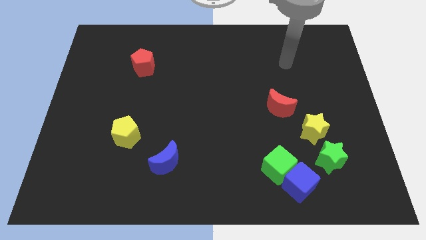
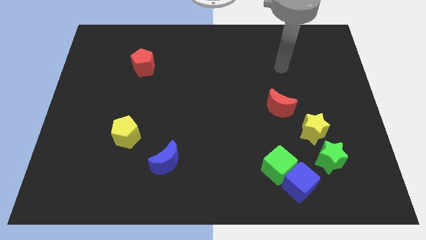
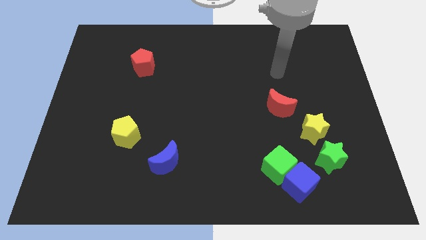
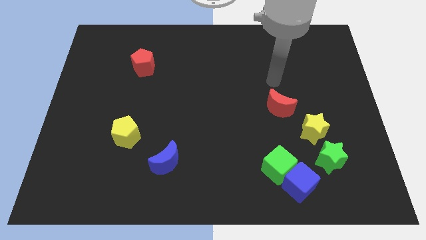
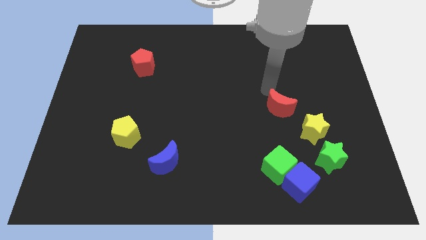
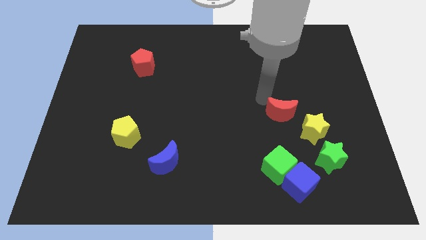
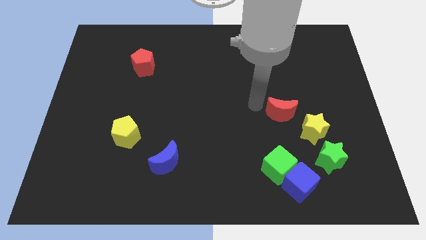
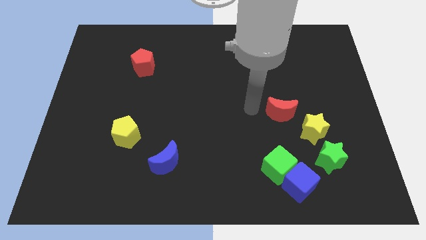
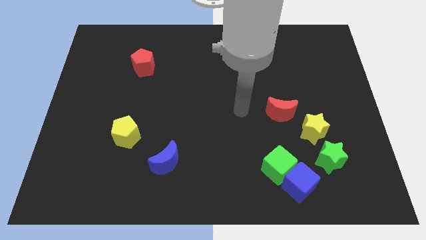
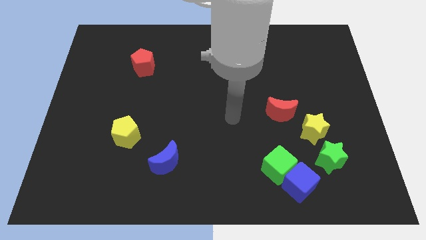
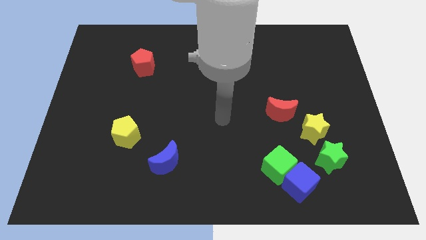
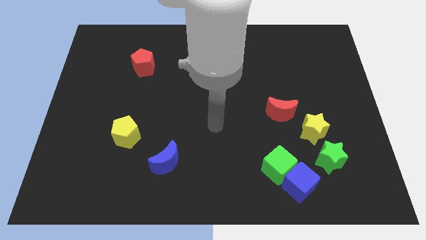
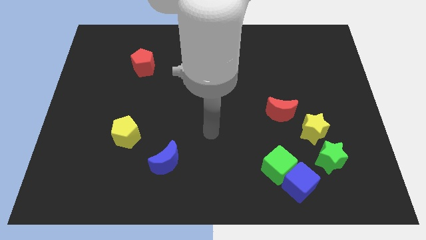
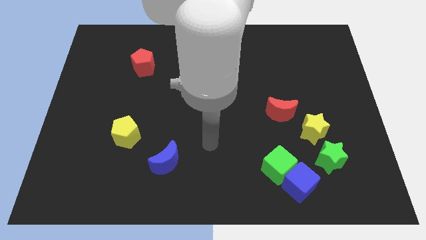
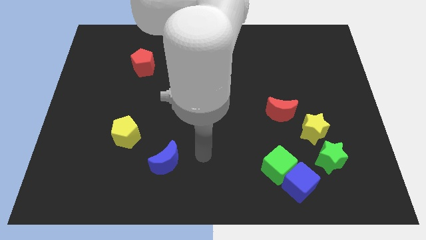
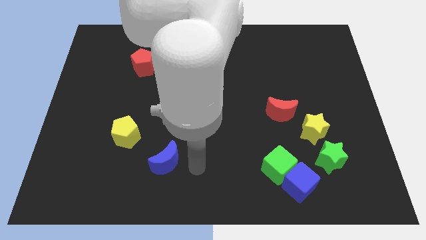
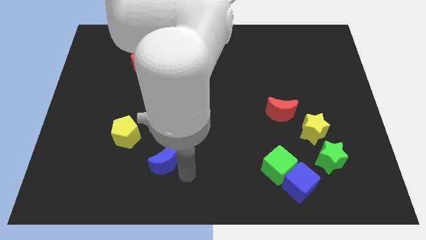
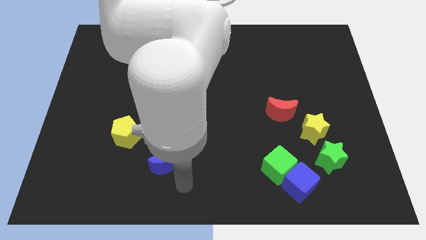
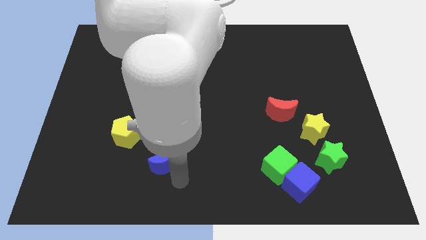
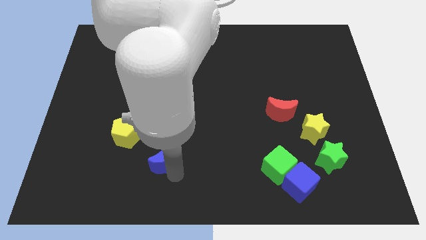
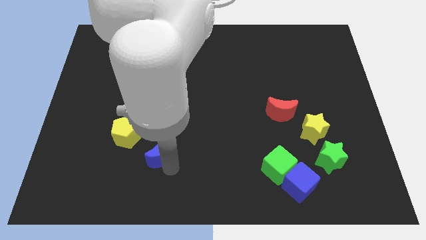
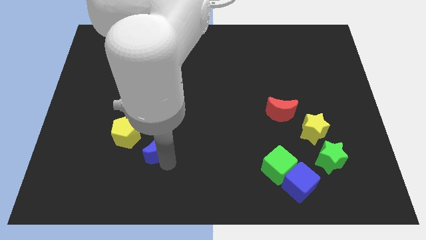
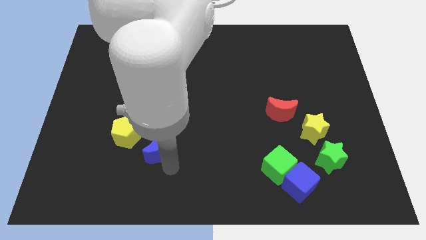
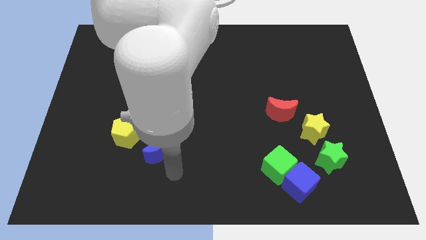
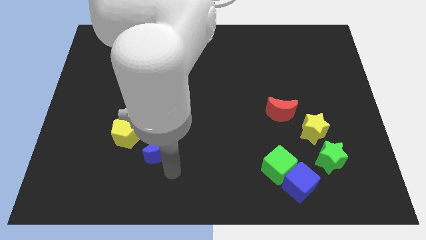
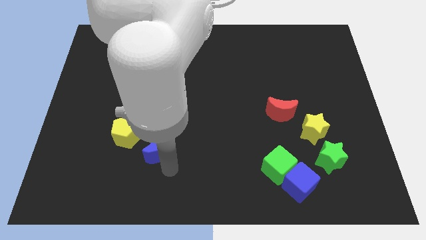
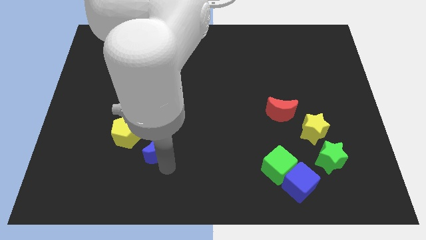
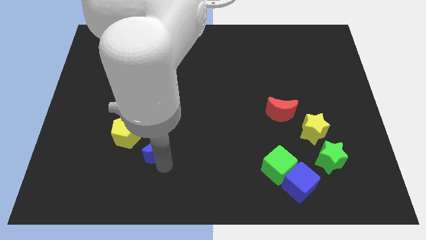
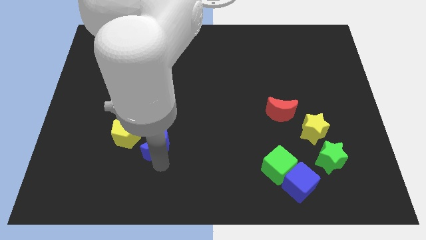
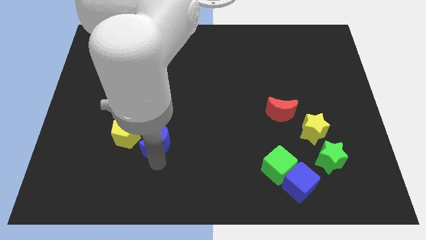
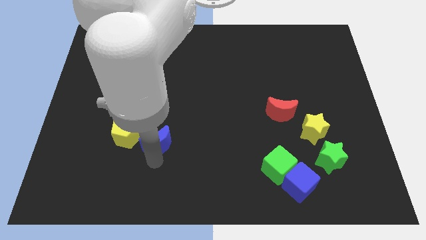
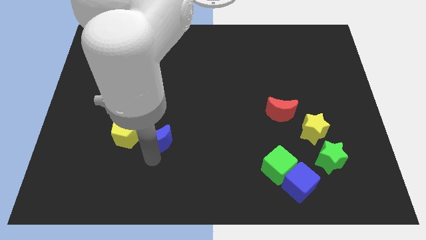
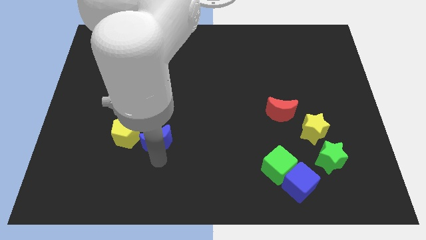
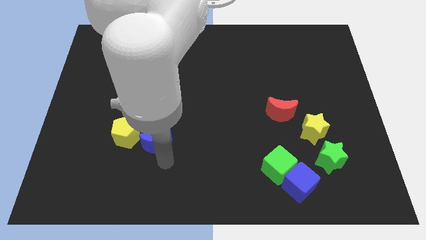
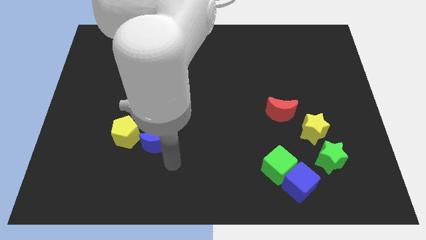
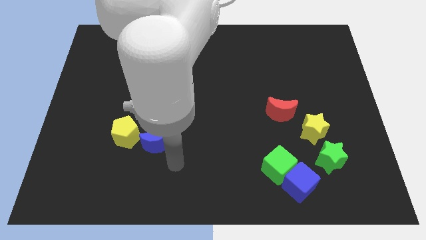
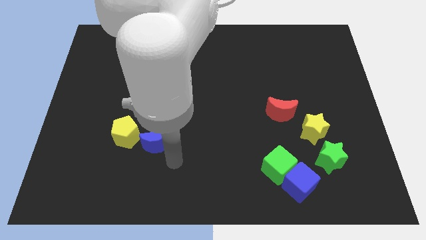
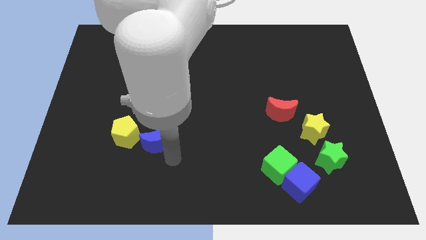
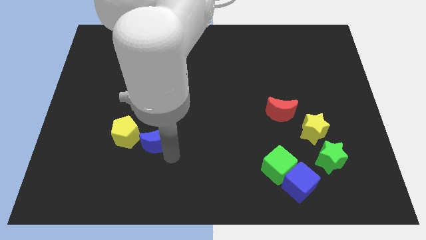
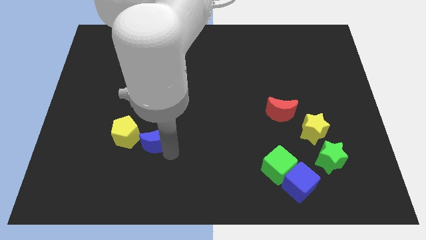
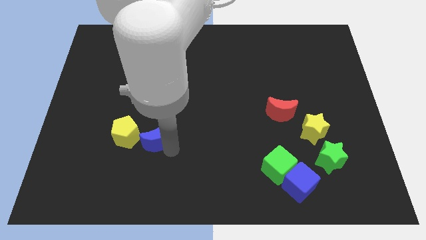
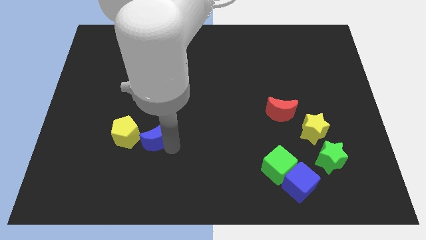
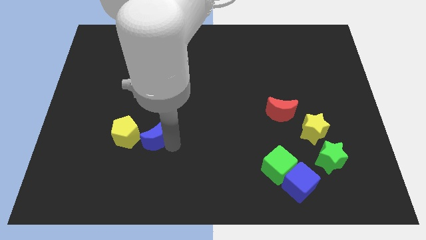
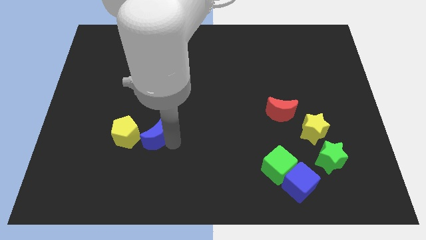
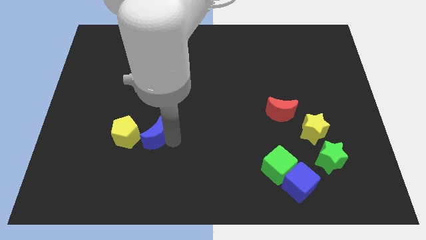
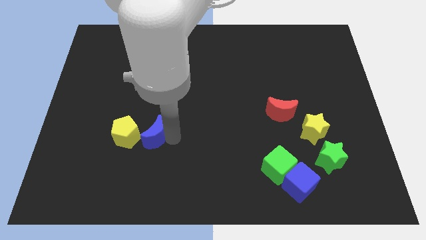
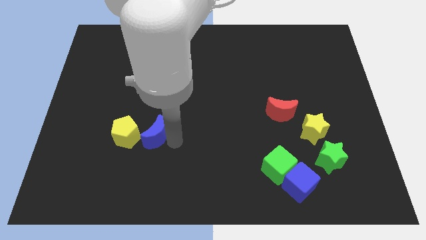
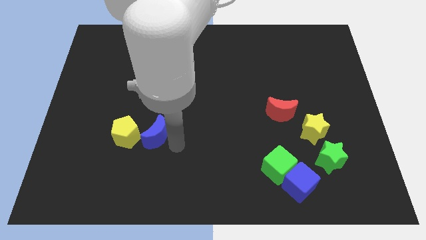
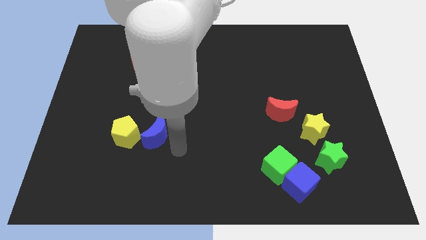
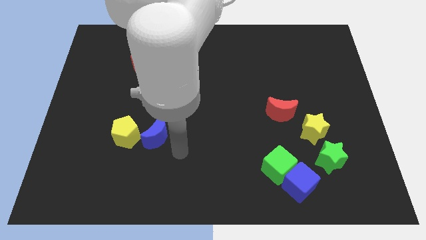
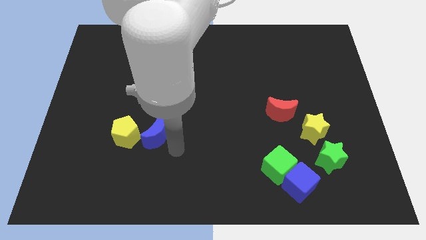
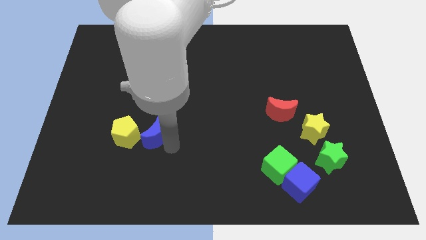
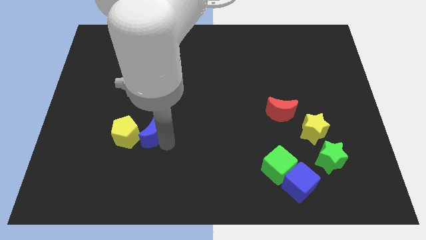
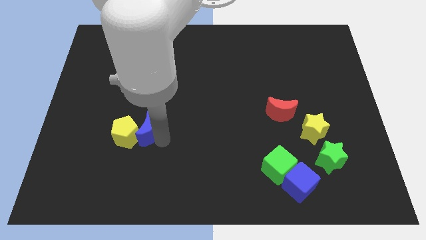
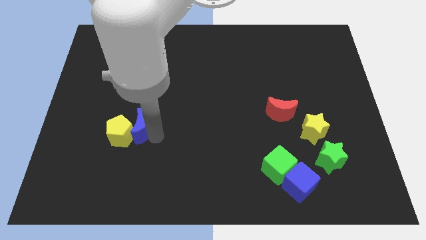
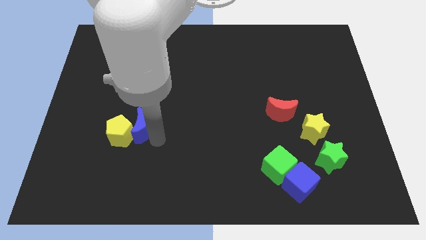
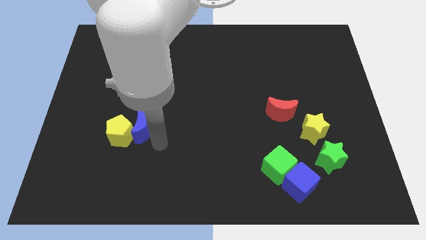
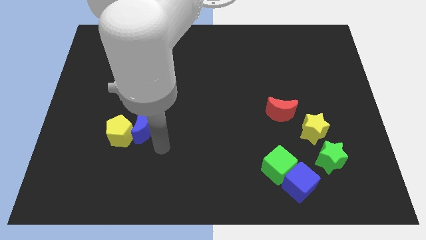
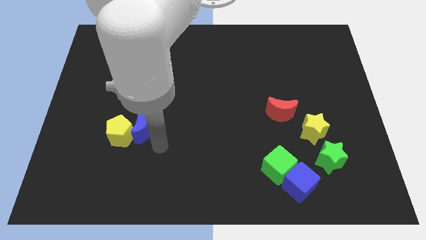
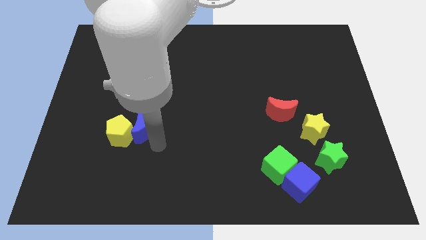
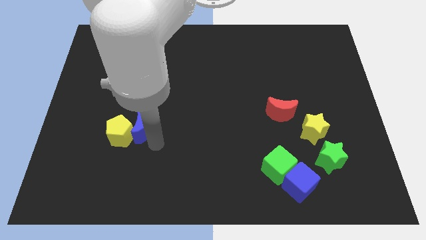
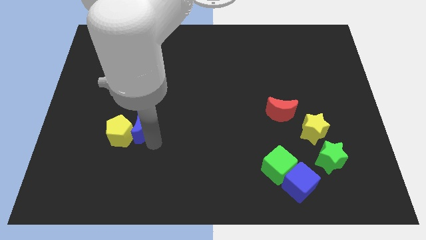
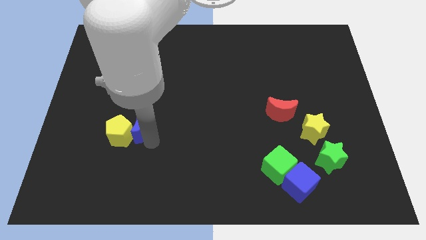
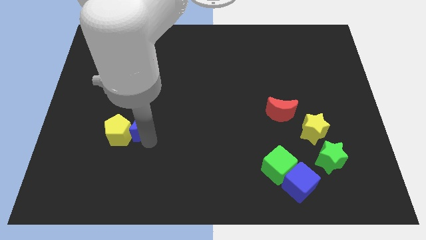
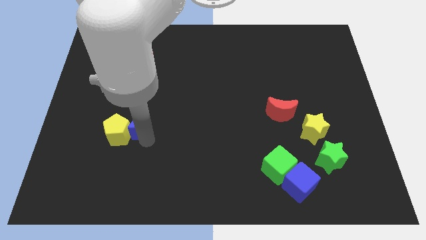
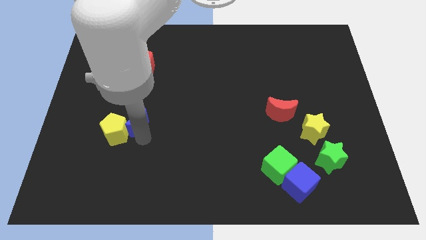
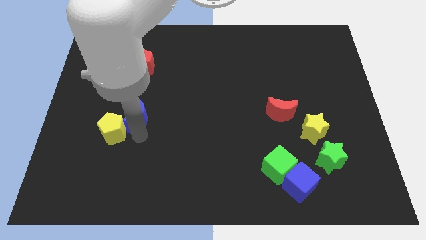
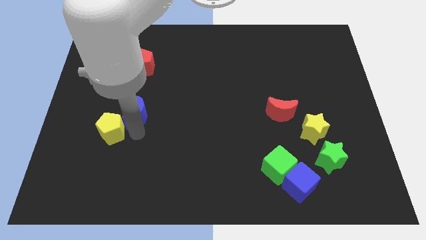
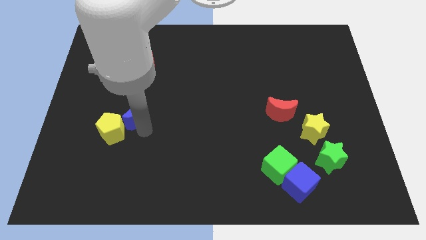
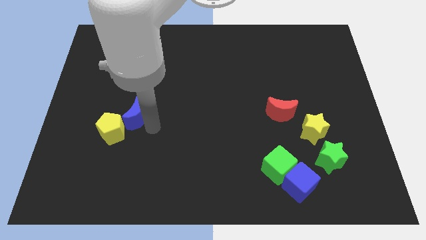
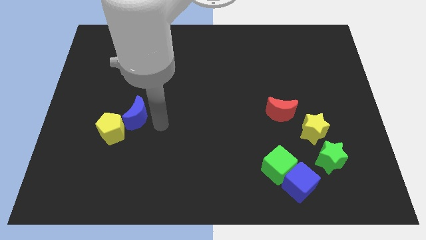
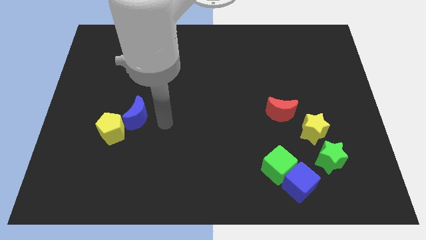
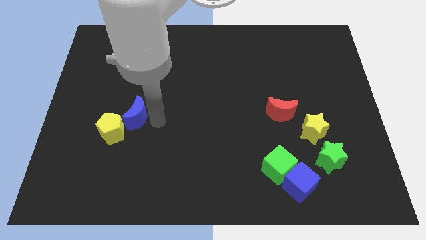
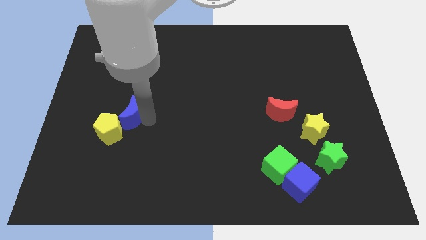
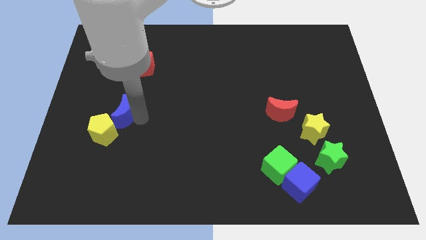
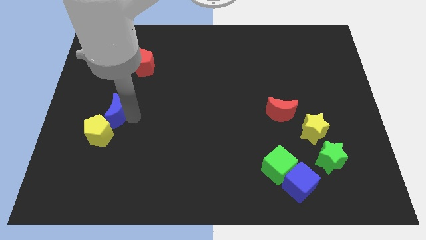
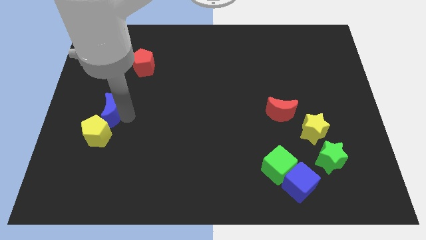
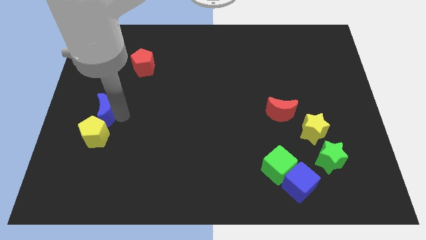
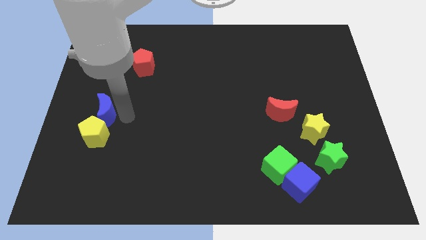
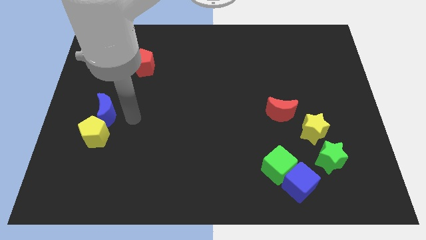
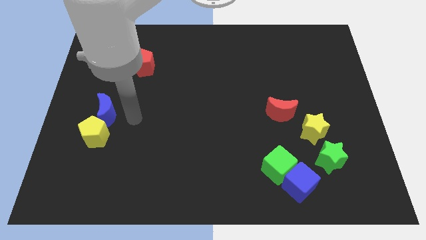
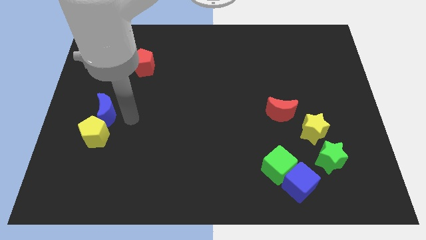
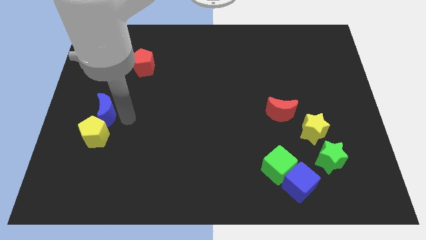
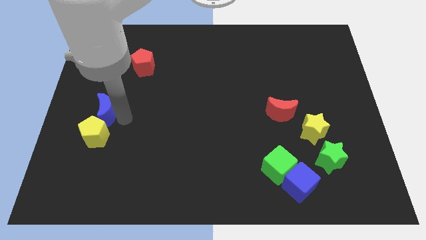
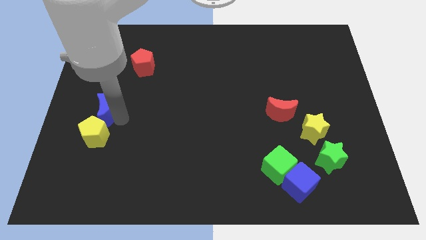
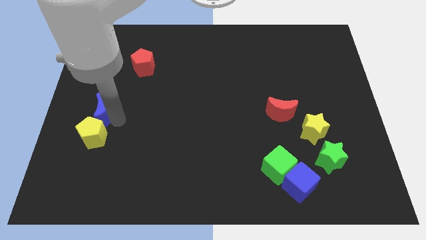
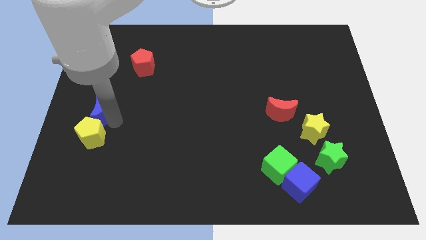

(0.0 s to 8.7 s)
put the blue moon to the left side
